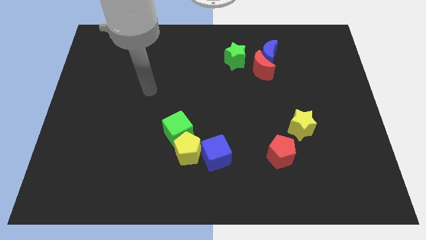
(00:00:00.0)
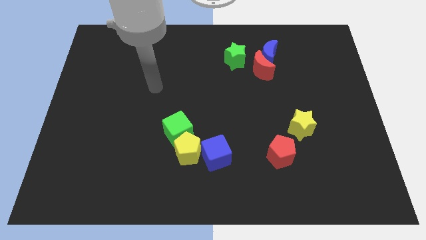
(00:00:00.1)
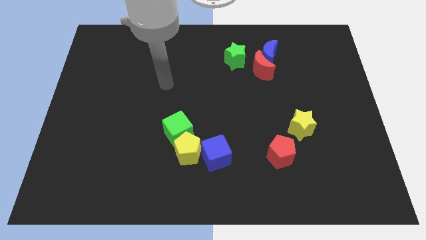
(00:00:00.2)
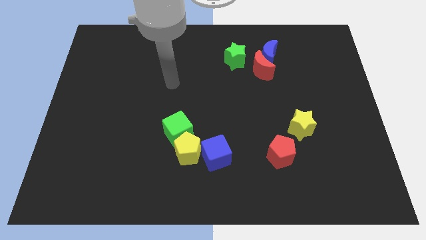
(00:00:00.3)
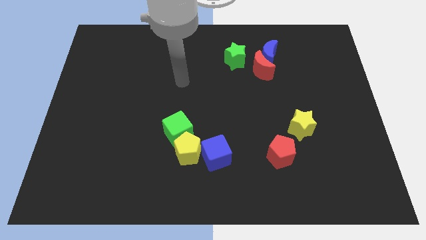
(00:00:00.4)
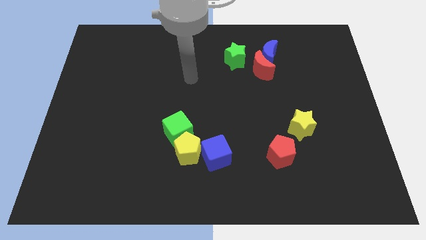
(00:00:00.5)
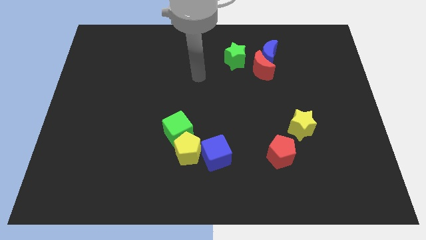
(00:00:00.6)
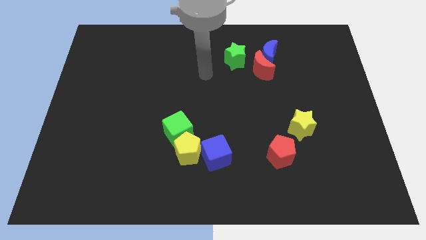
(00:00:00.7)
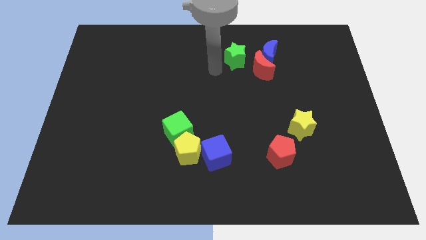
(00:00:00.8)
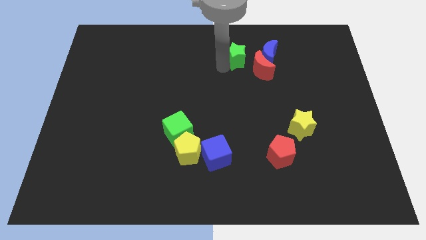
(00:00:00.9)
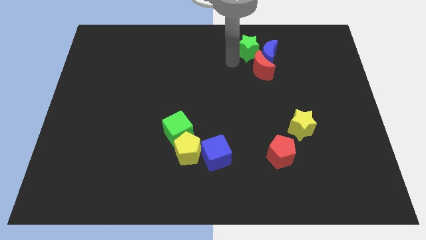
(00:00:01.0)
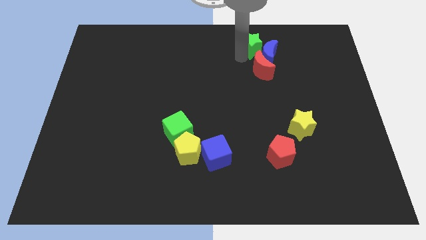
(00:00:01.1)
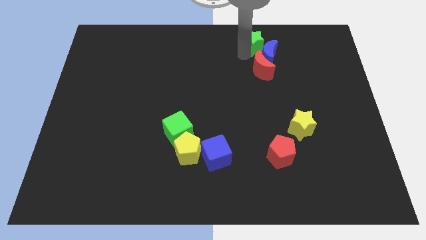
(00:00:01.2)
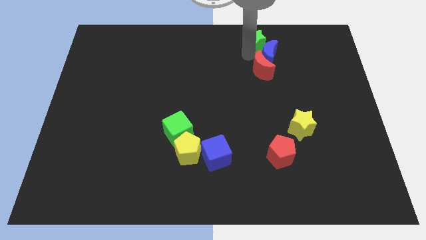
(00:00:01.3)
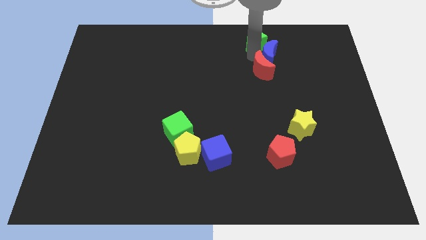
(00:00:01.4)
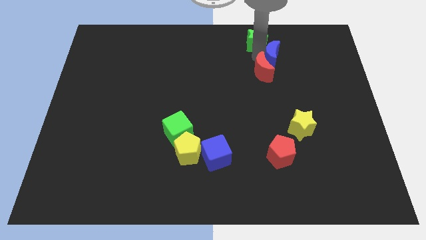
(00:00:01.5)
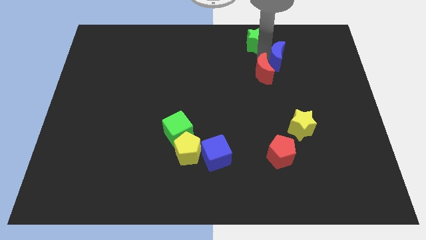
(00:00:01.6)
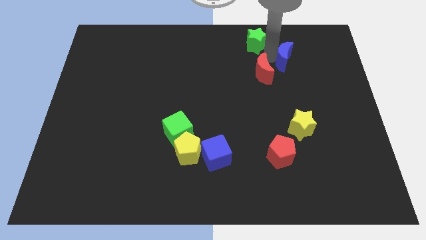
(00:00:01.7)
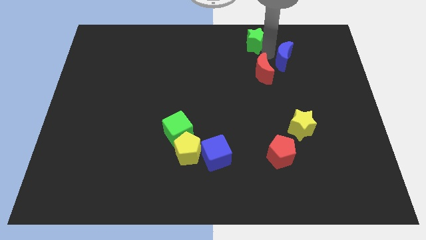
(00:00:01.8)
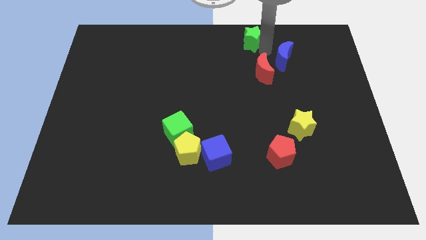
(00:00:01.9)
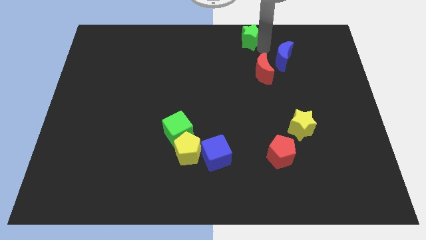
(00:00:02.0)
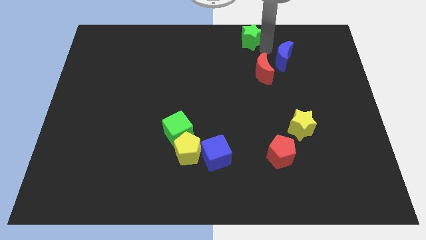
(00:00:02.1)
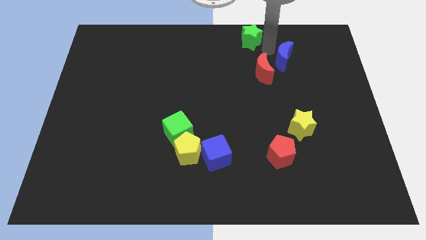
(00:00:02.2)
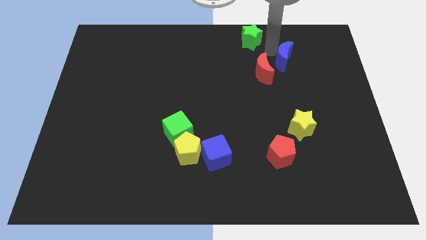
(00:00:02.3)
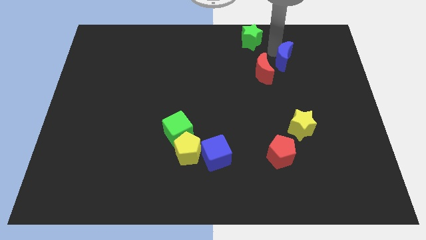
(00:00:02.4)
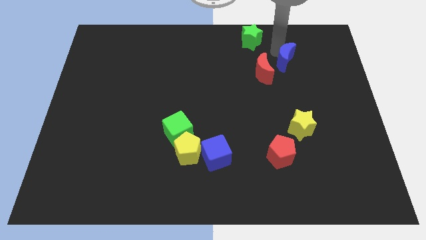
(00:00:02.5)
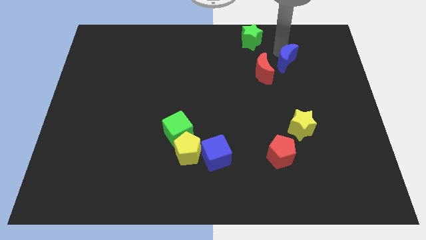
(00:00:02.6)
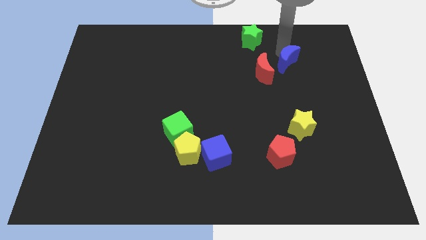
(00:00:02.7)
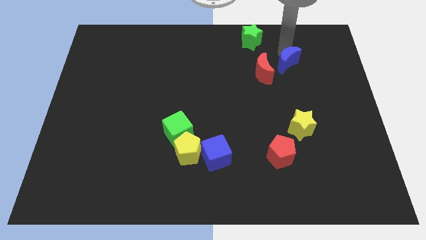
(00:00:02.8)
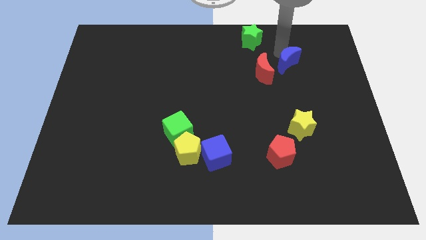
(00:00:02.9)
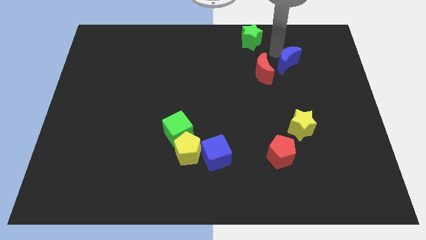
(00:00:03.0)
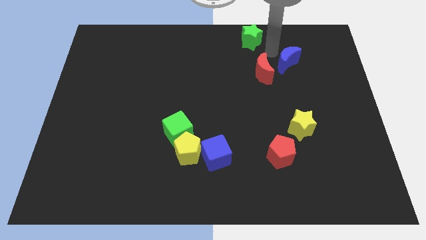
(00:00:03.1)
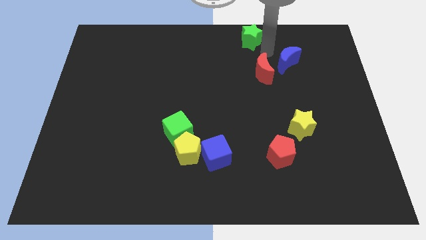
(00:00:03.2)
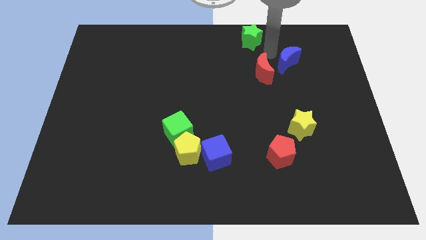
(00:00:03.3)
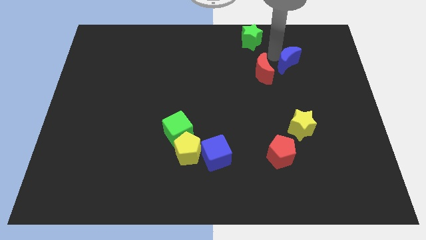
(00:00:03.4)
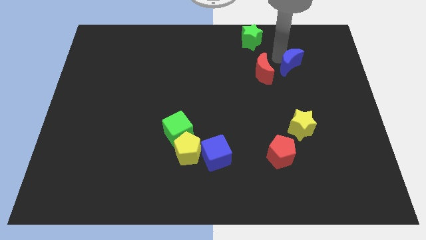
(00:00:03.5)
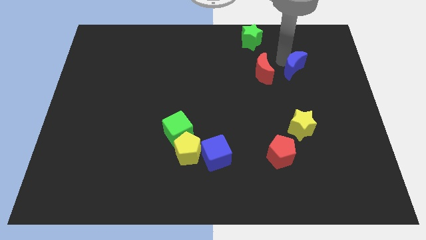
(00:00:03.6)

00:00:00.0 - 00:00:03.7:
push the blue moon a little down and to the right

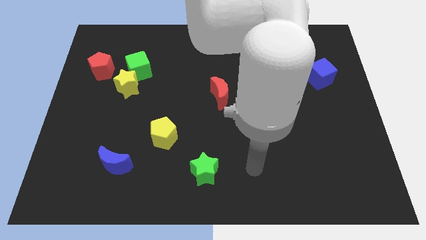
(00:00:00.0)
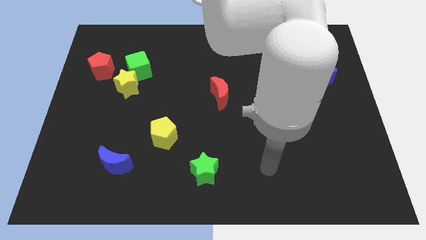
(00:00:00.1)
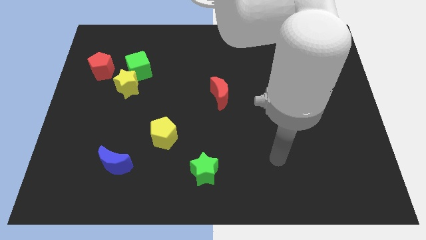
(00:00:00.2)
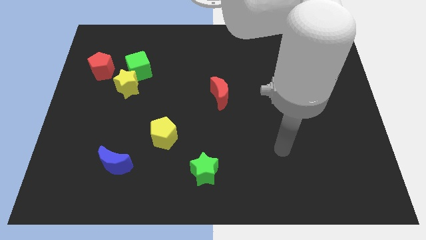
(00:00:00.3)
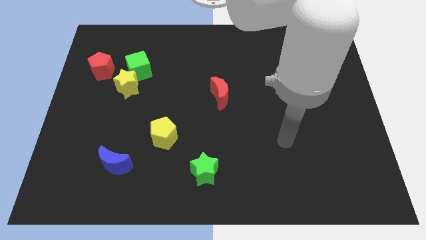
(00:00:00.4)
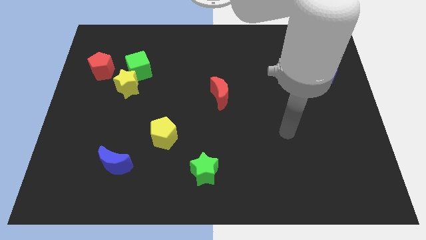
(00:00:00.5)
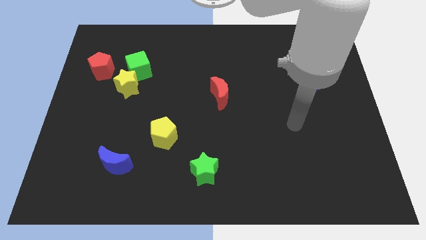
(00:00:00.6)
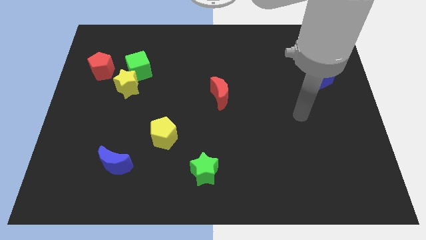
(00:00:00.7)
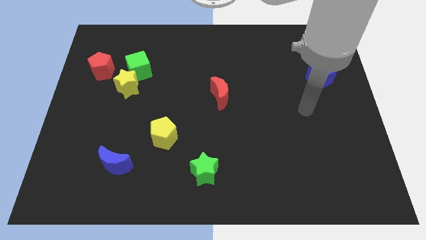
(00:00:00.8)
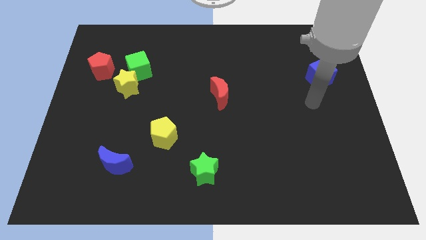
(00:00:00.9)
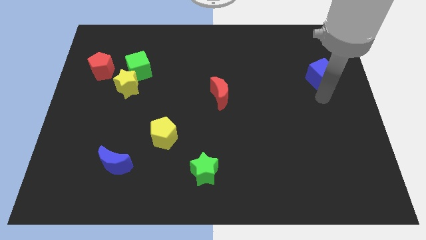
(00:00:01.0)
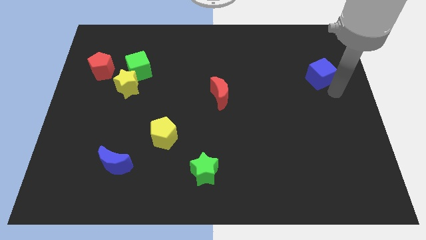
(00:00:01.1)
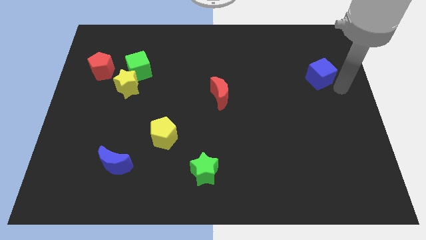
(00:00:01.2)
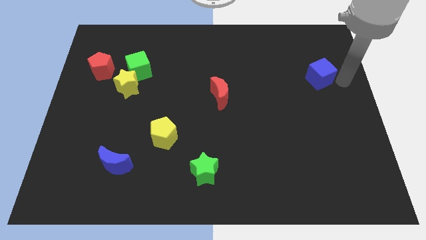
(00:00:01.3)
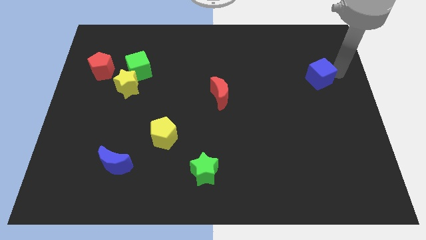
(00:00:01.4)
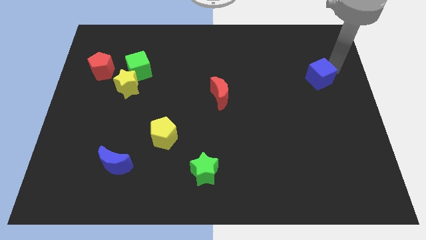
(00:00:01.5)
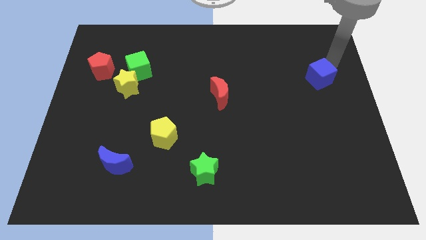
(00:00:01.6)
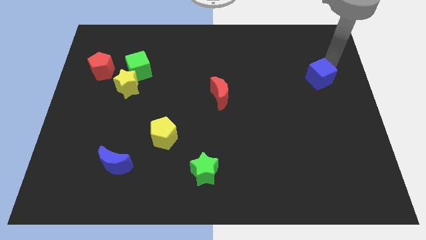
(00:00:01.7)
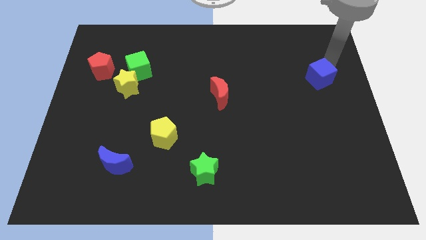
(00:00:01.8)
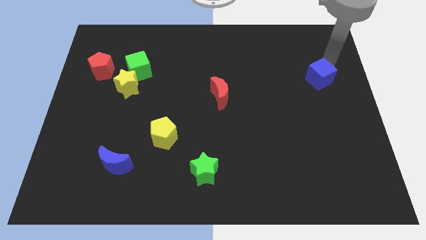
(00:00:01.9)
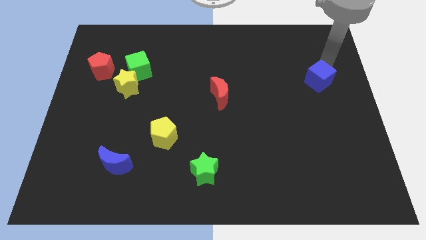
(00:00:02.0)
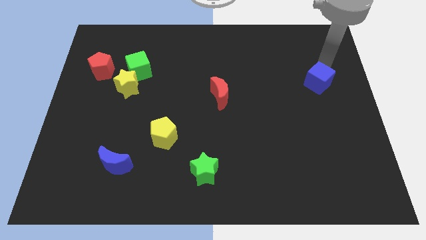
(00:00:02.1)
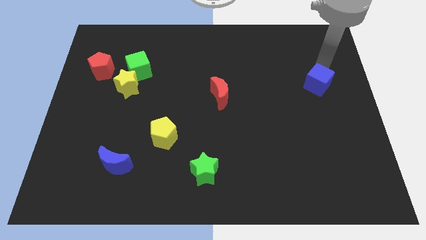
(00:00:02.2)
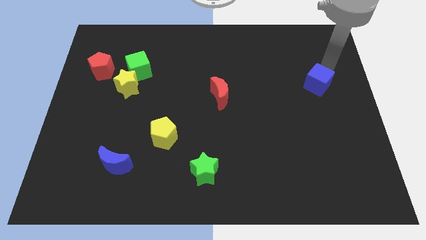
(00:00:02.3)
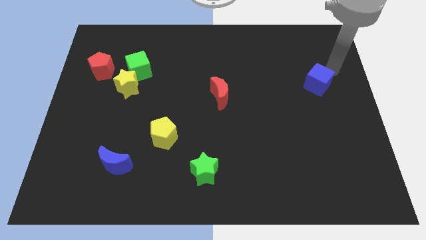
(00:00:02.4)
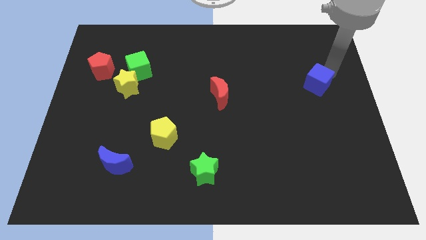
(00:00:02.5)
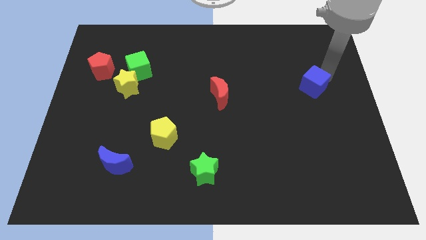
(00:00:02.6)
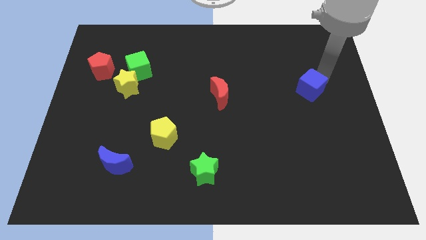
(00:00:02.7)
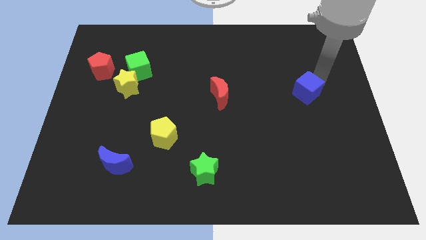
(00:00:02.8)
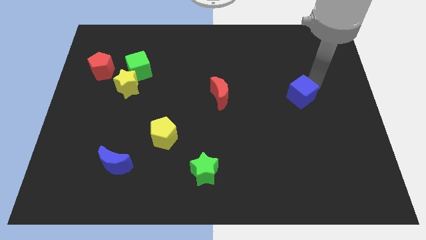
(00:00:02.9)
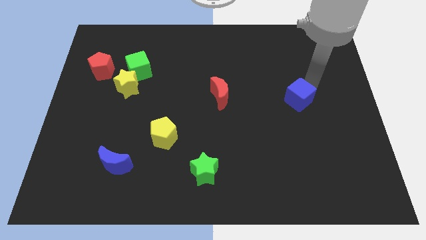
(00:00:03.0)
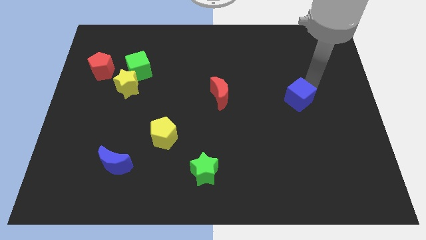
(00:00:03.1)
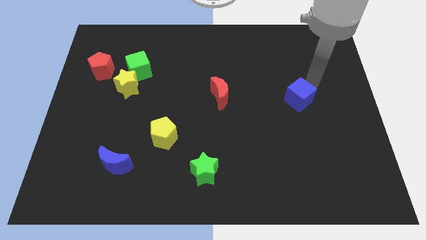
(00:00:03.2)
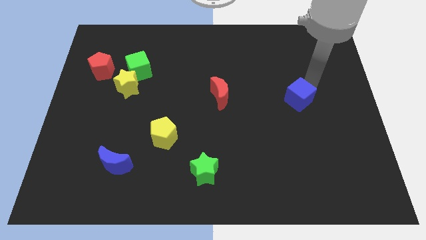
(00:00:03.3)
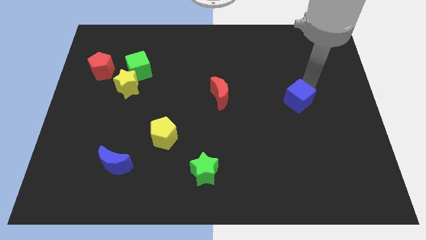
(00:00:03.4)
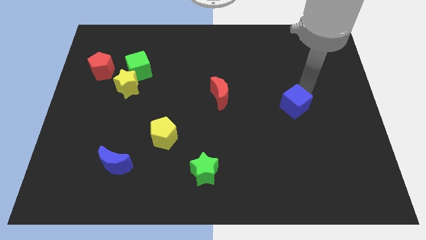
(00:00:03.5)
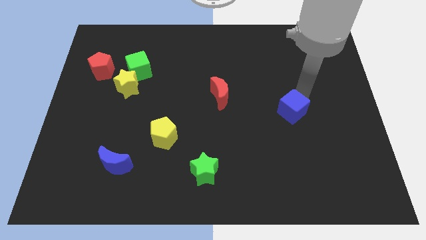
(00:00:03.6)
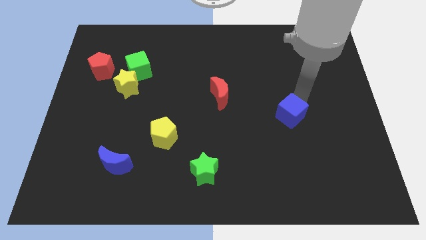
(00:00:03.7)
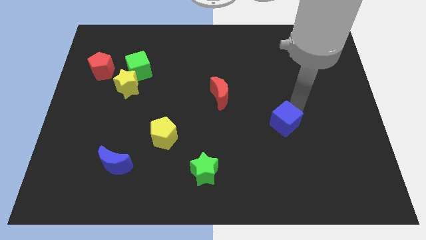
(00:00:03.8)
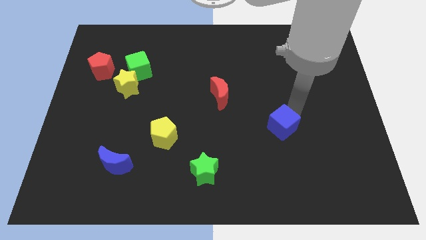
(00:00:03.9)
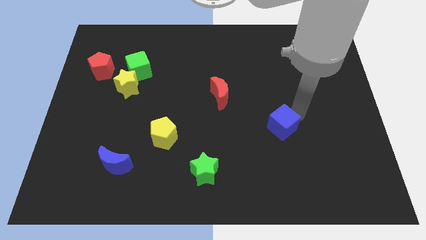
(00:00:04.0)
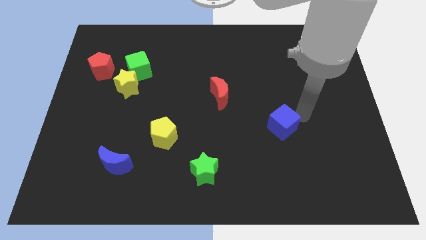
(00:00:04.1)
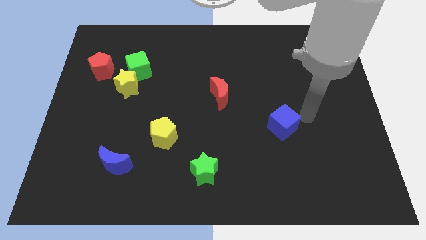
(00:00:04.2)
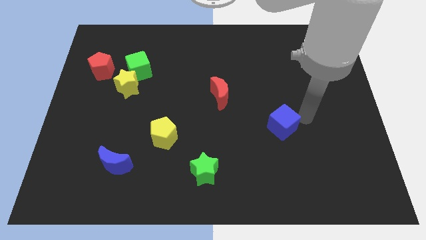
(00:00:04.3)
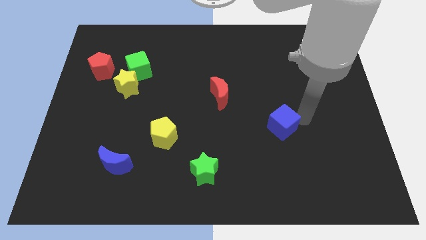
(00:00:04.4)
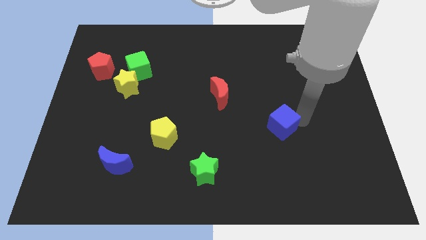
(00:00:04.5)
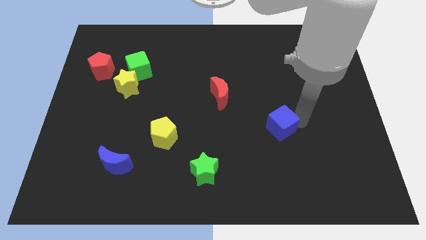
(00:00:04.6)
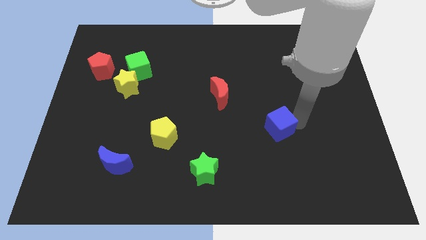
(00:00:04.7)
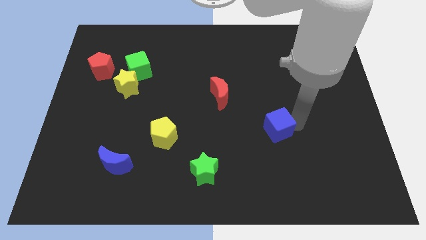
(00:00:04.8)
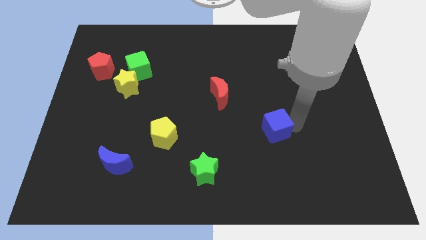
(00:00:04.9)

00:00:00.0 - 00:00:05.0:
slide the blue cube down and left
